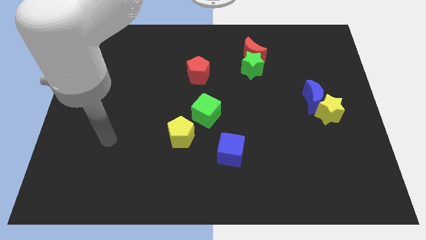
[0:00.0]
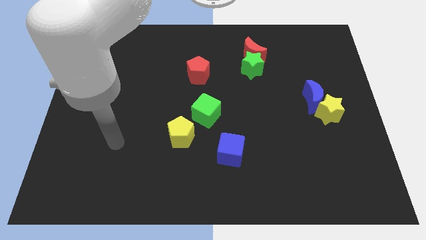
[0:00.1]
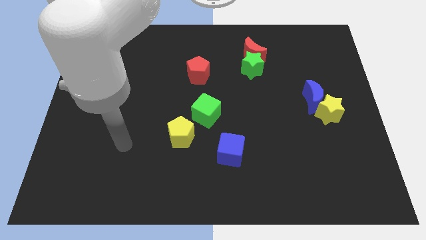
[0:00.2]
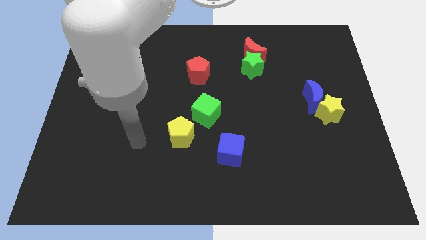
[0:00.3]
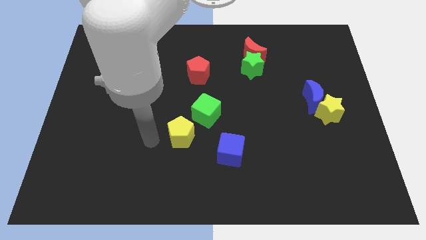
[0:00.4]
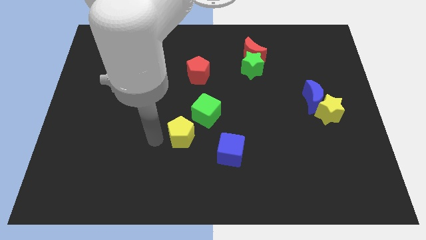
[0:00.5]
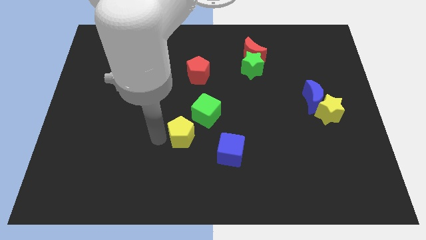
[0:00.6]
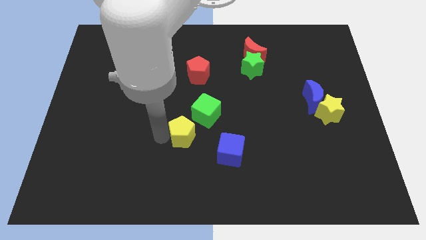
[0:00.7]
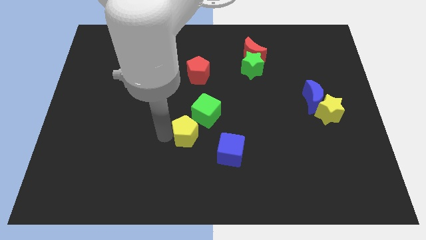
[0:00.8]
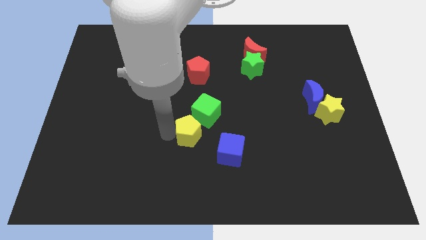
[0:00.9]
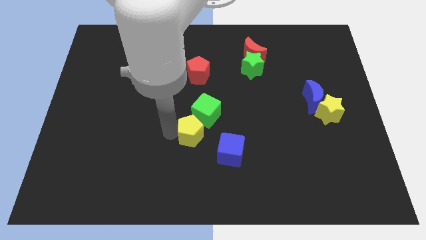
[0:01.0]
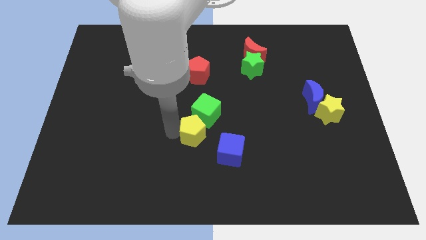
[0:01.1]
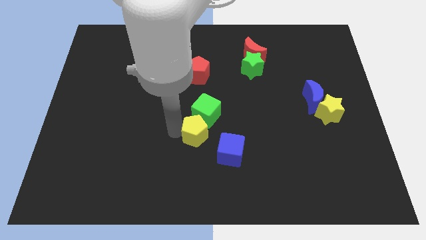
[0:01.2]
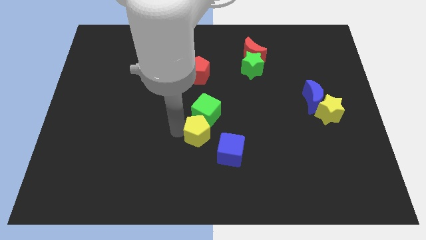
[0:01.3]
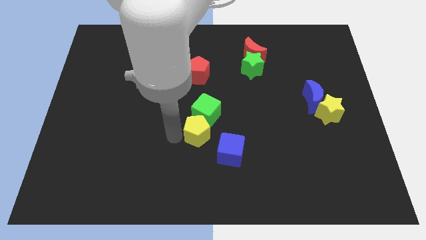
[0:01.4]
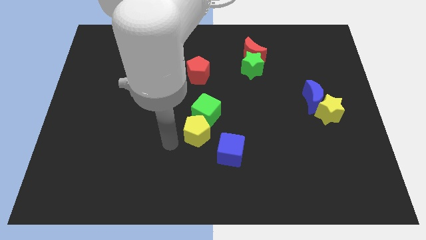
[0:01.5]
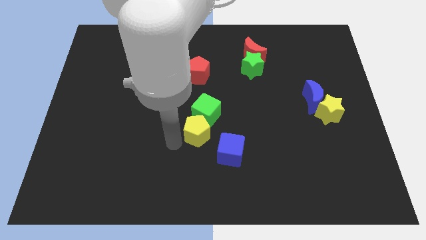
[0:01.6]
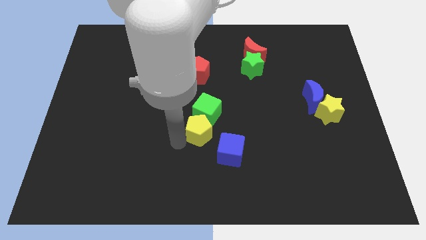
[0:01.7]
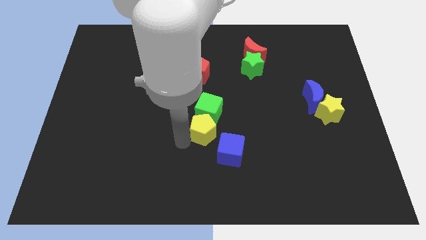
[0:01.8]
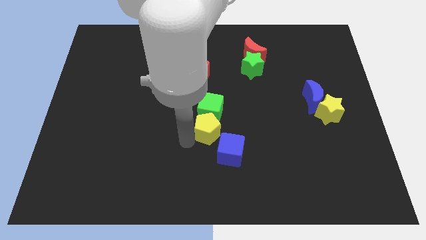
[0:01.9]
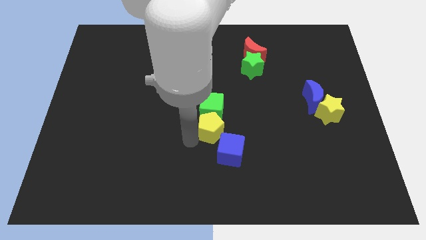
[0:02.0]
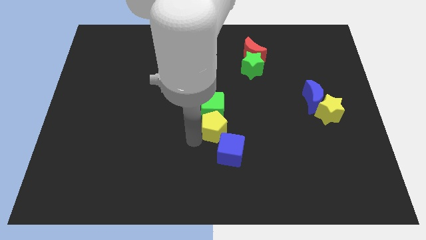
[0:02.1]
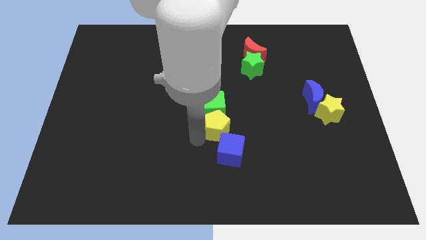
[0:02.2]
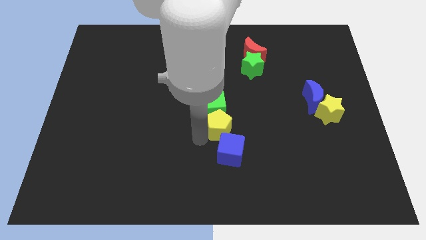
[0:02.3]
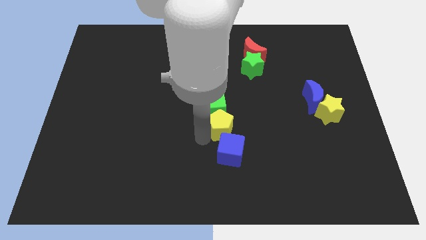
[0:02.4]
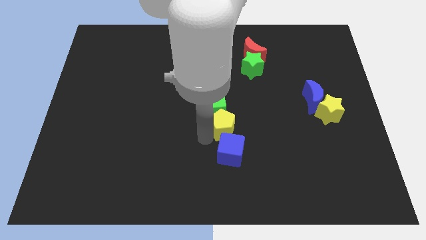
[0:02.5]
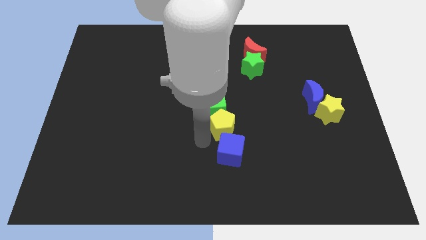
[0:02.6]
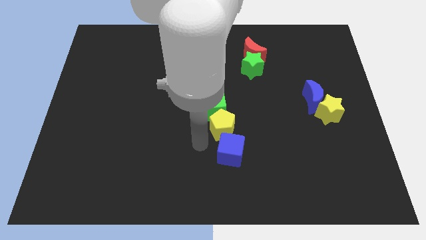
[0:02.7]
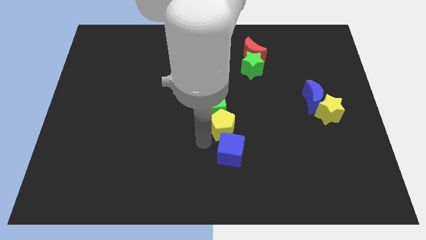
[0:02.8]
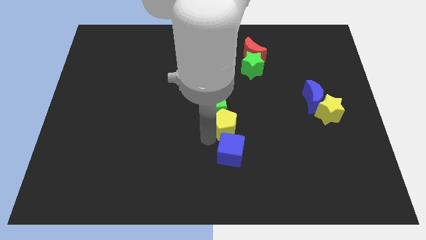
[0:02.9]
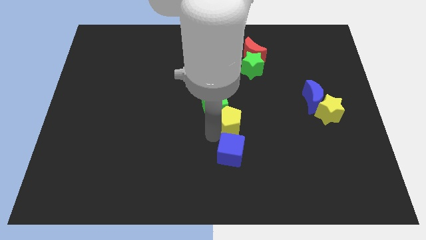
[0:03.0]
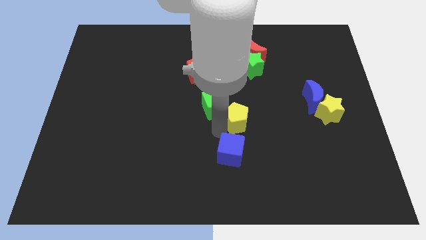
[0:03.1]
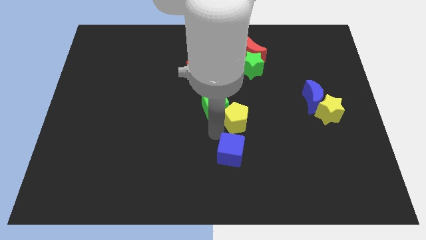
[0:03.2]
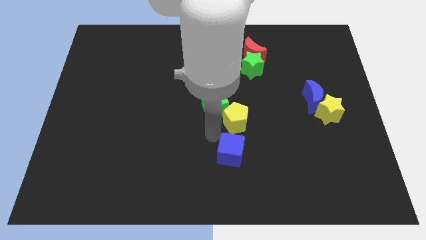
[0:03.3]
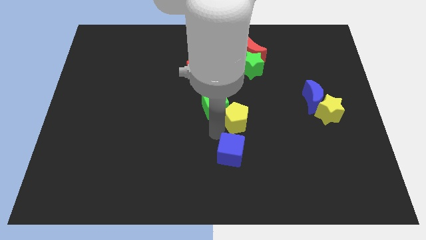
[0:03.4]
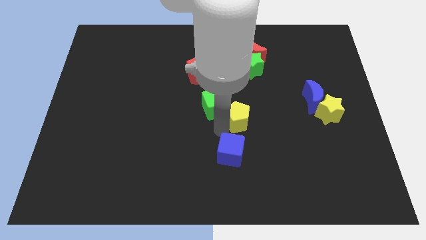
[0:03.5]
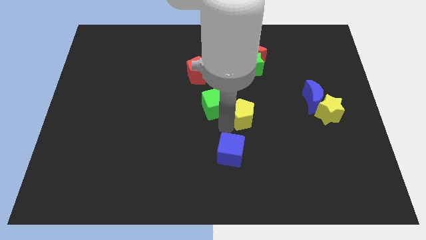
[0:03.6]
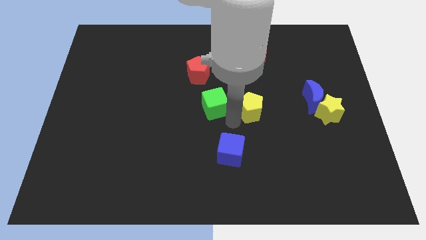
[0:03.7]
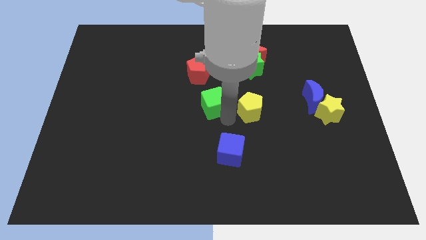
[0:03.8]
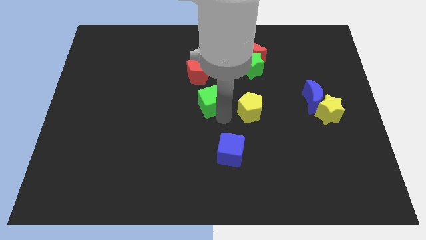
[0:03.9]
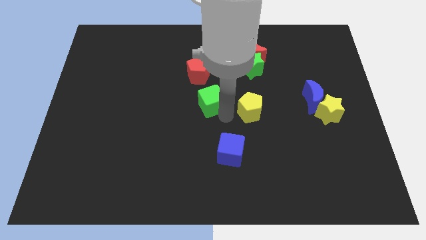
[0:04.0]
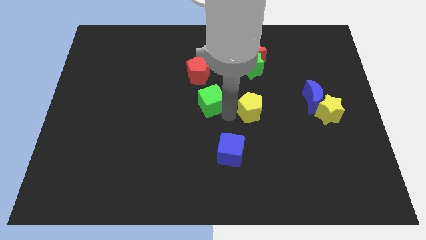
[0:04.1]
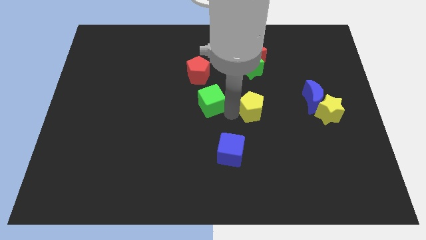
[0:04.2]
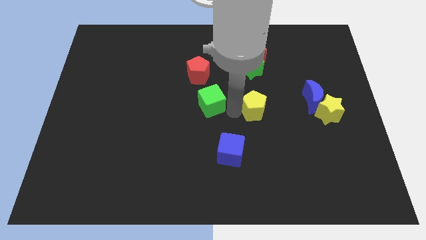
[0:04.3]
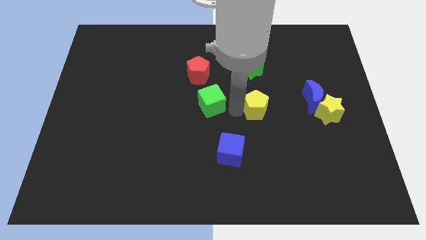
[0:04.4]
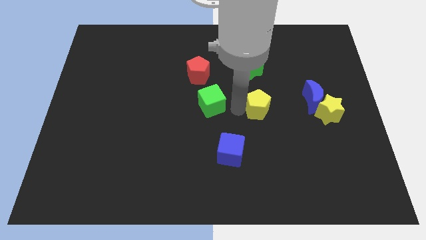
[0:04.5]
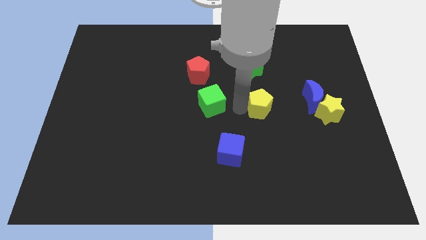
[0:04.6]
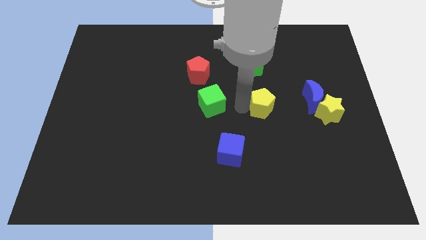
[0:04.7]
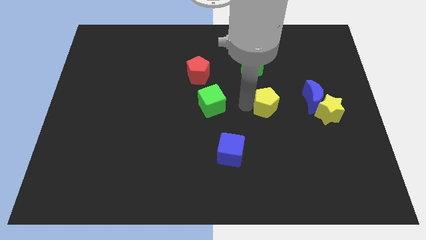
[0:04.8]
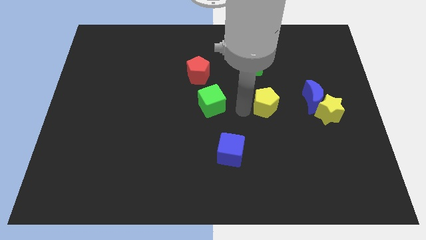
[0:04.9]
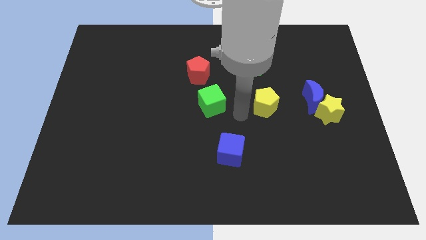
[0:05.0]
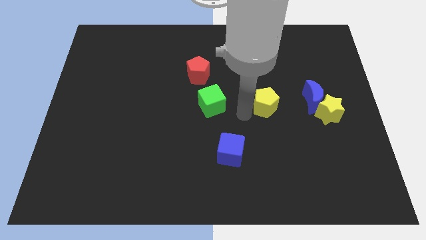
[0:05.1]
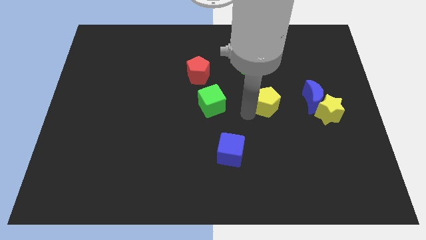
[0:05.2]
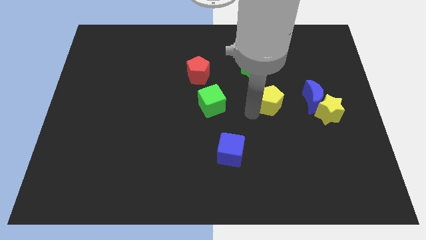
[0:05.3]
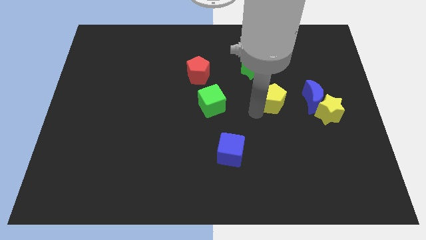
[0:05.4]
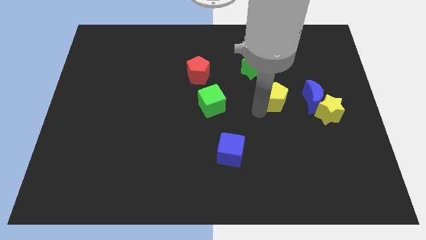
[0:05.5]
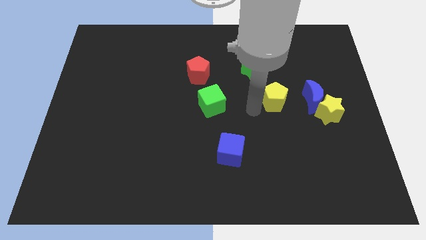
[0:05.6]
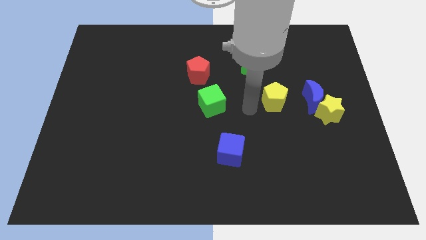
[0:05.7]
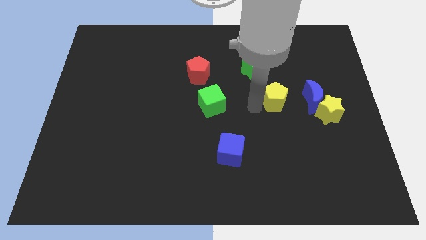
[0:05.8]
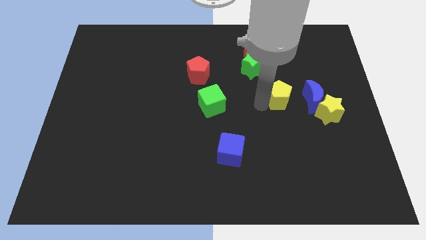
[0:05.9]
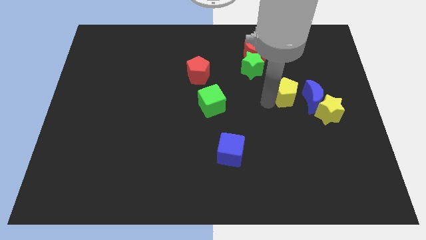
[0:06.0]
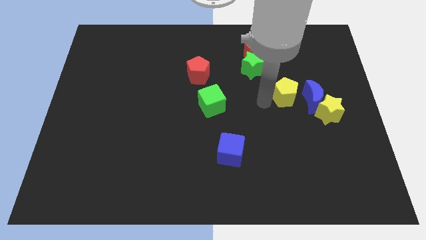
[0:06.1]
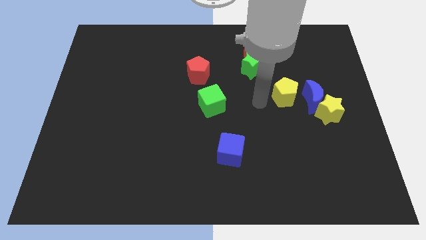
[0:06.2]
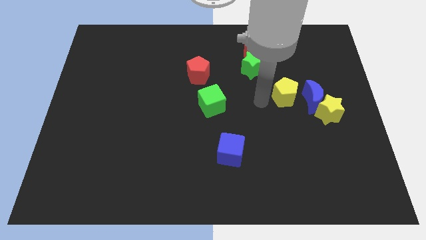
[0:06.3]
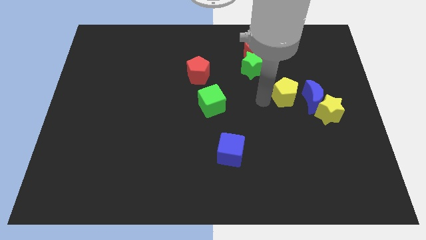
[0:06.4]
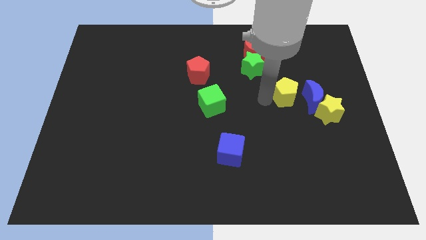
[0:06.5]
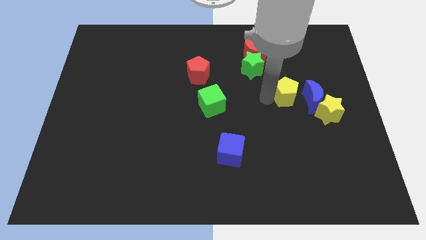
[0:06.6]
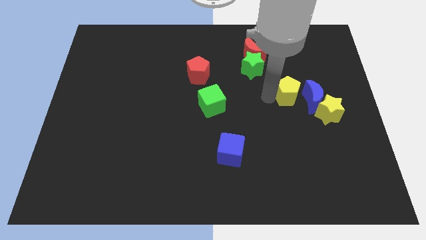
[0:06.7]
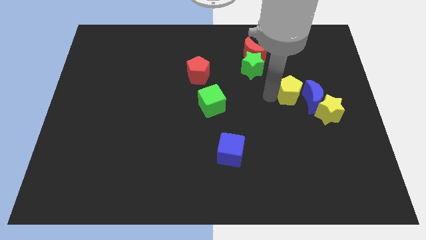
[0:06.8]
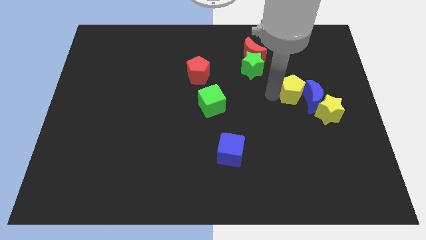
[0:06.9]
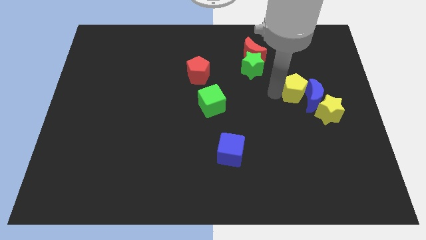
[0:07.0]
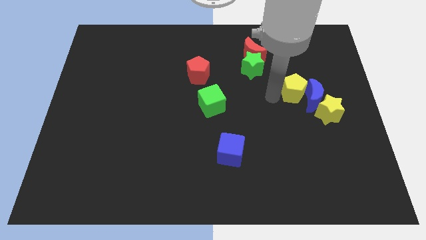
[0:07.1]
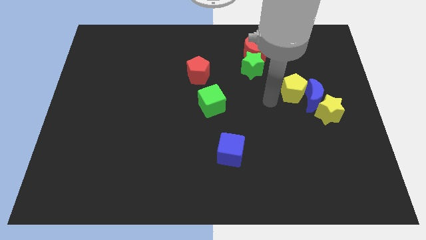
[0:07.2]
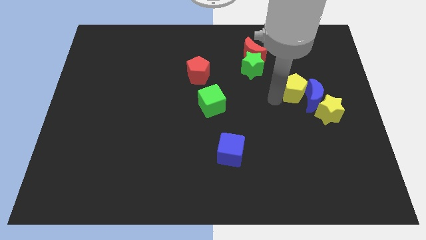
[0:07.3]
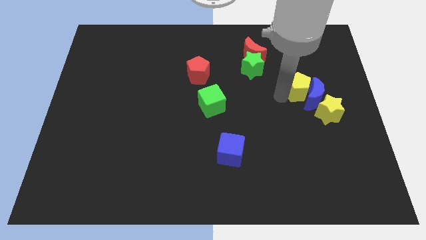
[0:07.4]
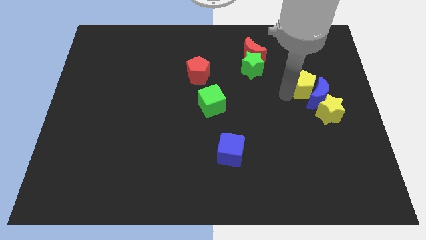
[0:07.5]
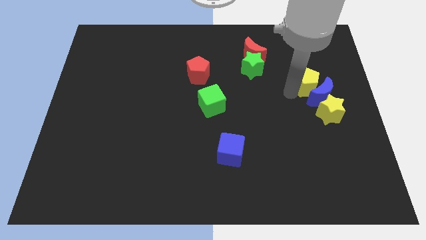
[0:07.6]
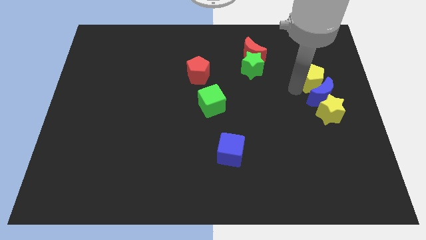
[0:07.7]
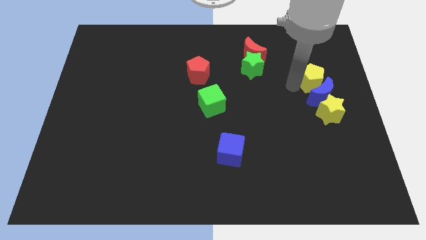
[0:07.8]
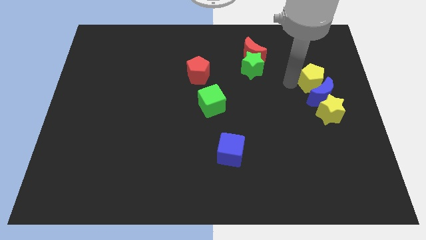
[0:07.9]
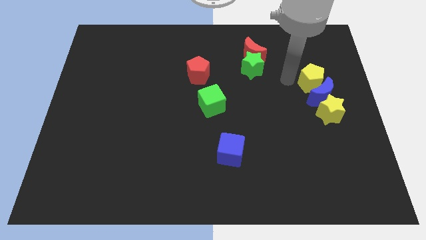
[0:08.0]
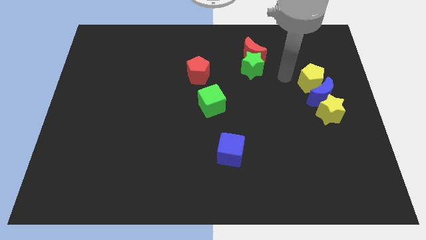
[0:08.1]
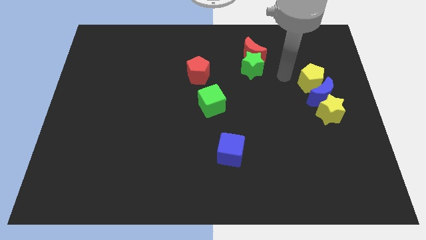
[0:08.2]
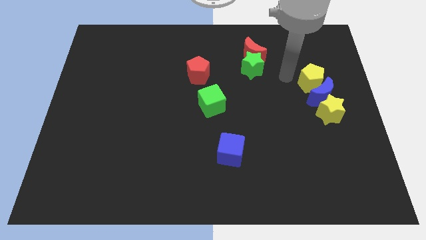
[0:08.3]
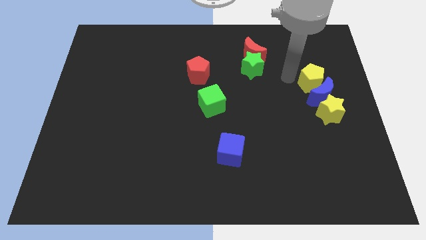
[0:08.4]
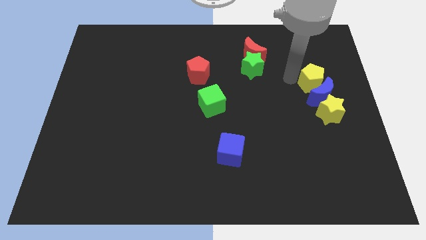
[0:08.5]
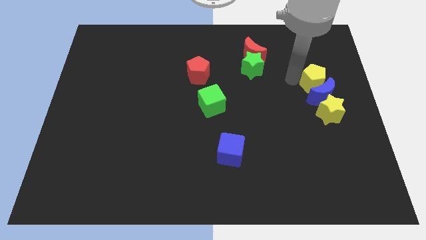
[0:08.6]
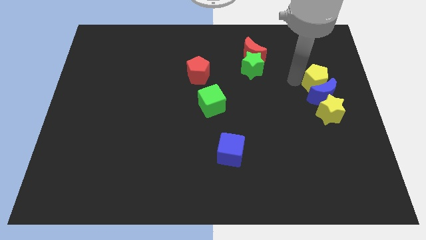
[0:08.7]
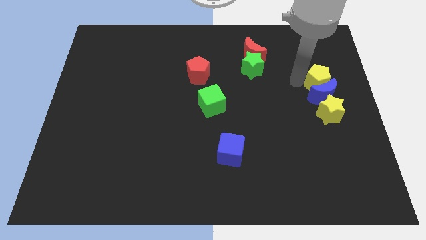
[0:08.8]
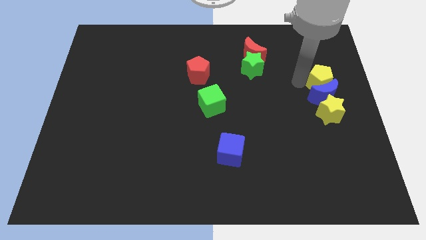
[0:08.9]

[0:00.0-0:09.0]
move the yellow pentagon to the right side of the board
